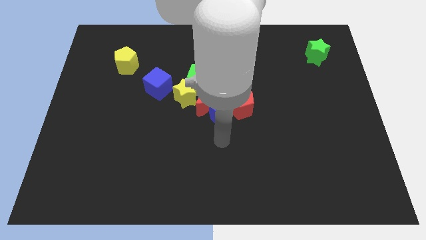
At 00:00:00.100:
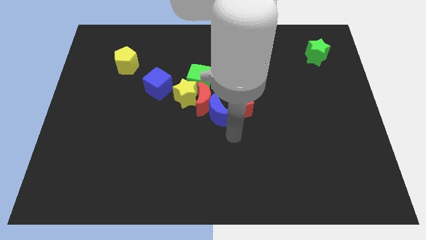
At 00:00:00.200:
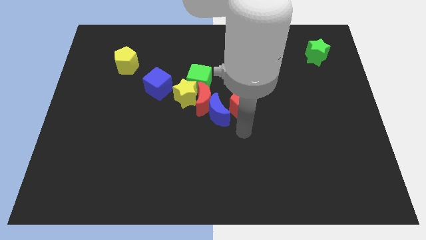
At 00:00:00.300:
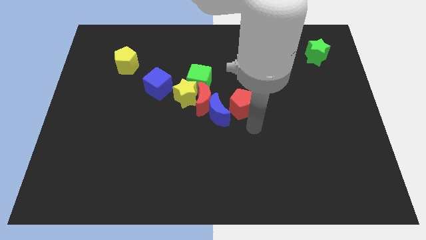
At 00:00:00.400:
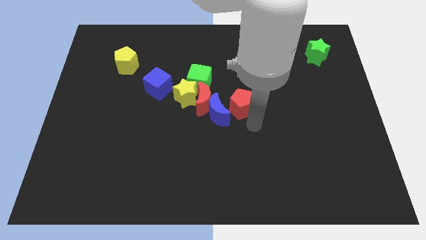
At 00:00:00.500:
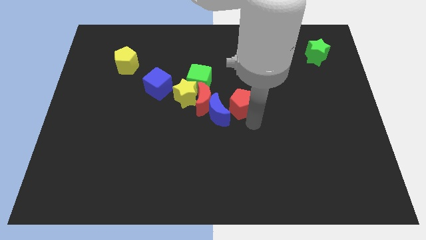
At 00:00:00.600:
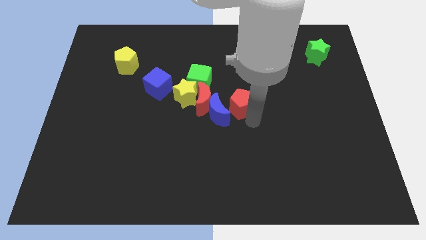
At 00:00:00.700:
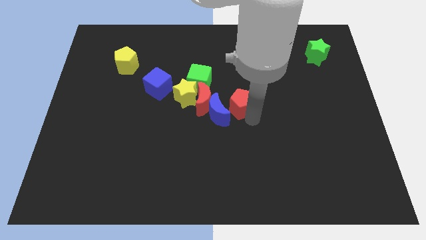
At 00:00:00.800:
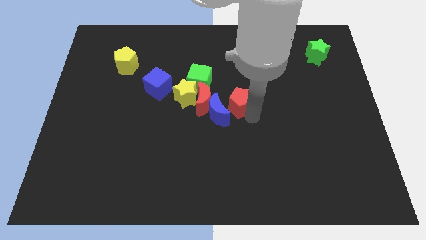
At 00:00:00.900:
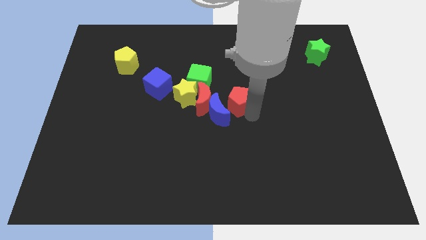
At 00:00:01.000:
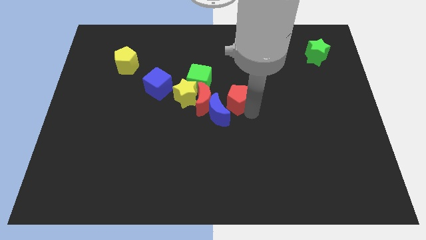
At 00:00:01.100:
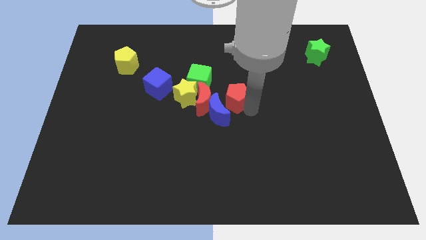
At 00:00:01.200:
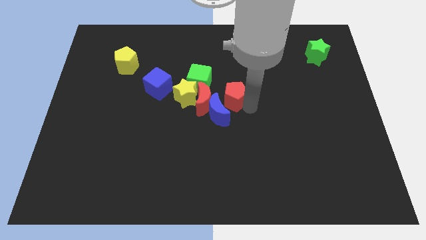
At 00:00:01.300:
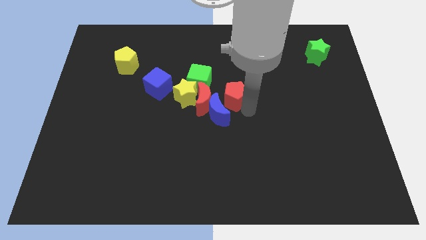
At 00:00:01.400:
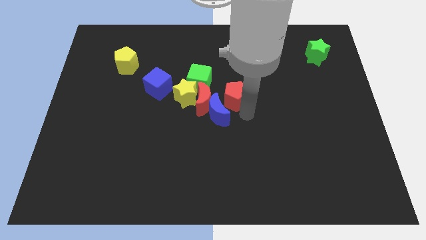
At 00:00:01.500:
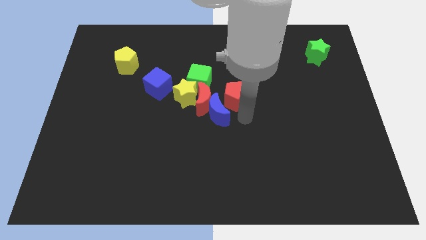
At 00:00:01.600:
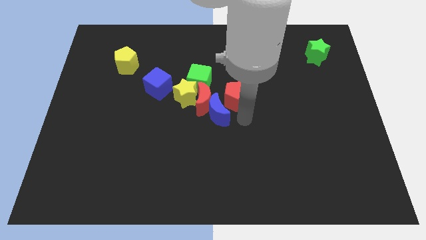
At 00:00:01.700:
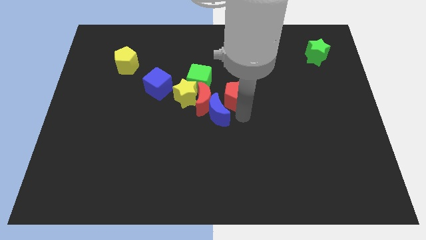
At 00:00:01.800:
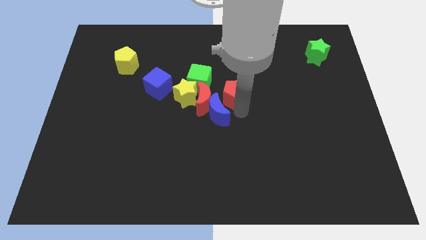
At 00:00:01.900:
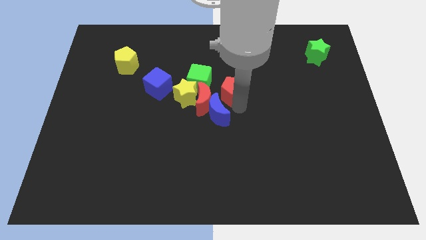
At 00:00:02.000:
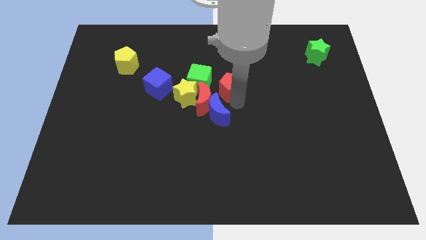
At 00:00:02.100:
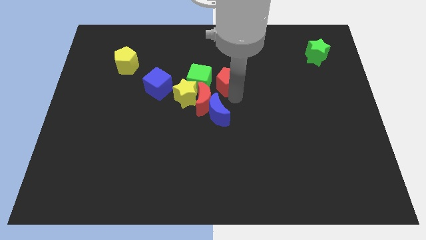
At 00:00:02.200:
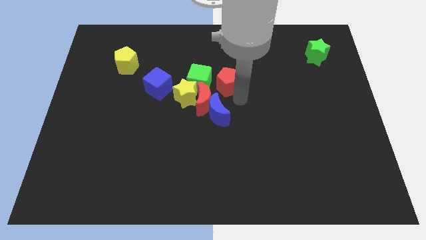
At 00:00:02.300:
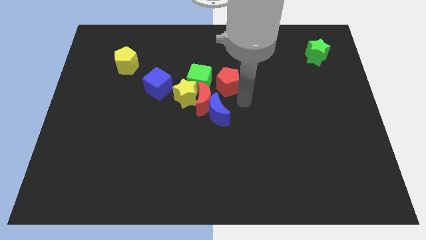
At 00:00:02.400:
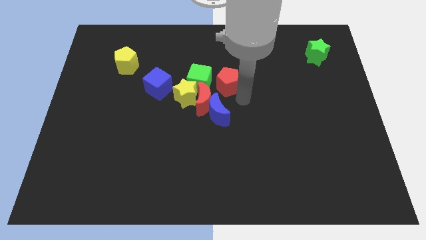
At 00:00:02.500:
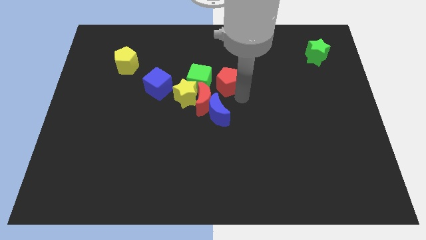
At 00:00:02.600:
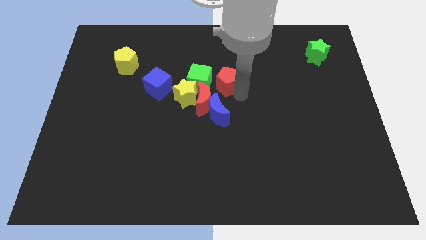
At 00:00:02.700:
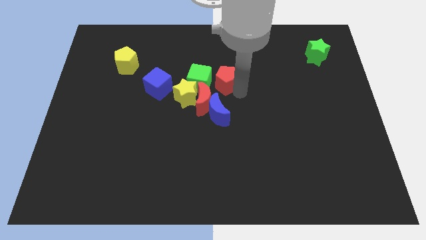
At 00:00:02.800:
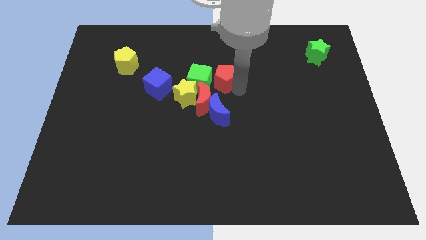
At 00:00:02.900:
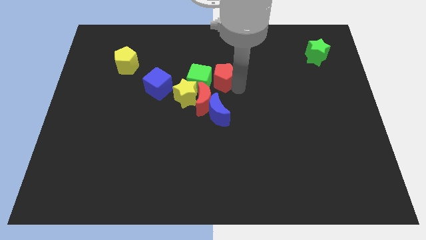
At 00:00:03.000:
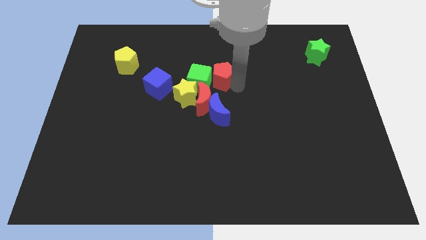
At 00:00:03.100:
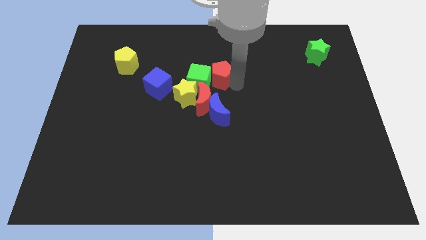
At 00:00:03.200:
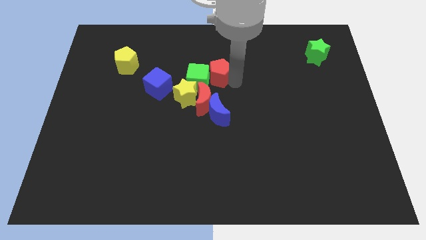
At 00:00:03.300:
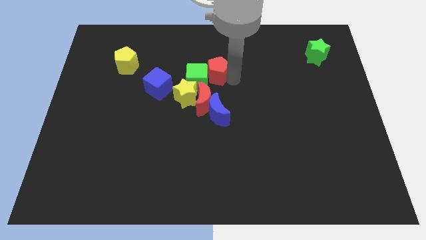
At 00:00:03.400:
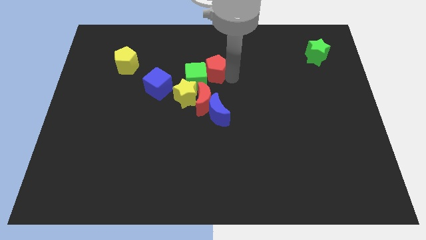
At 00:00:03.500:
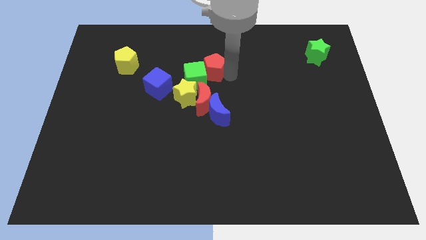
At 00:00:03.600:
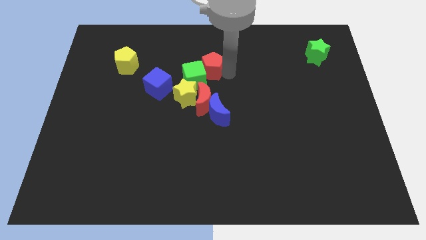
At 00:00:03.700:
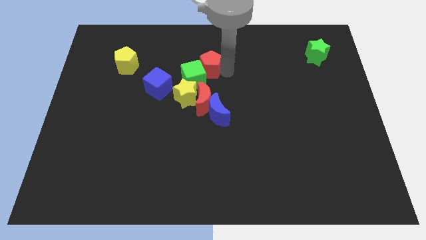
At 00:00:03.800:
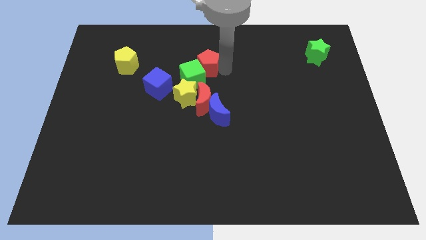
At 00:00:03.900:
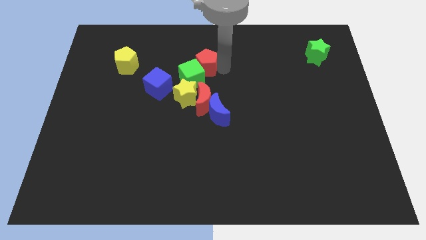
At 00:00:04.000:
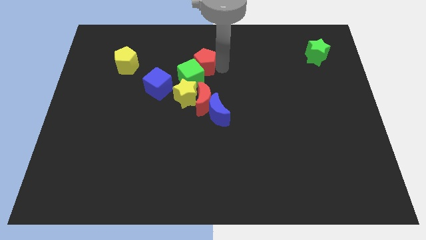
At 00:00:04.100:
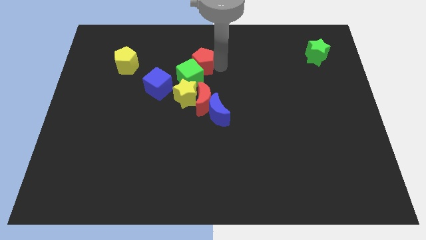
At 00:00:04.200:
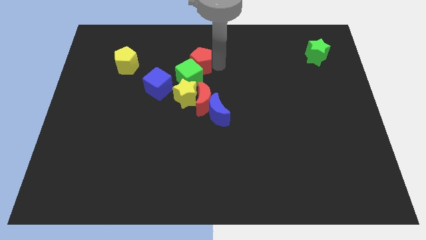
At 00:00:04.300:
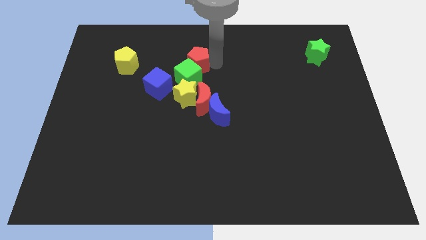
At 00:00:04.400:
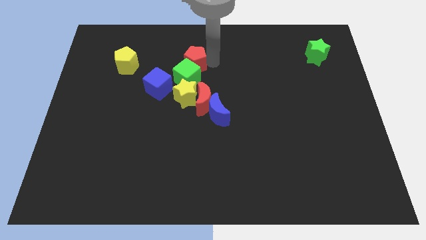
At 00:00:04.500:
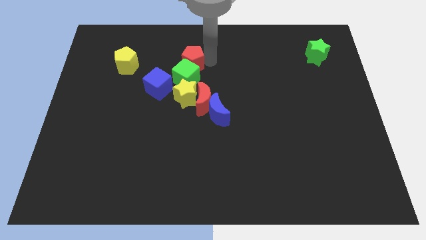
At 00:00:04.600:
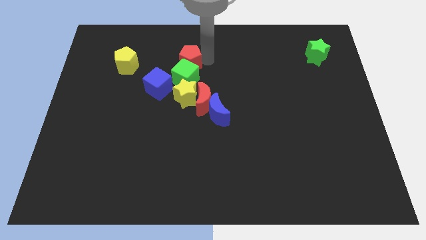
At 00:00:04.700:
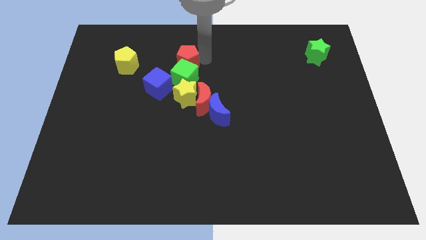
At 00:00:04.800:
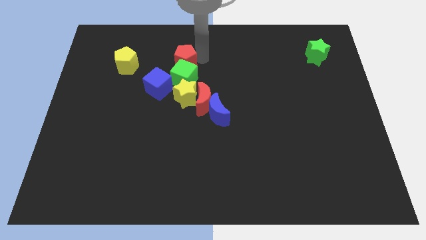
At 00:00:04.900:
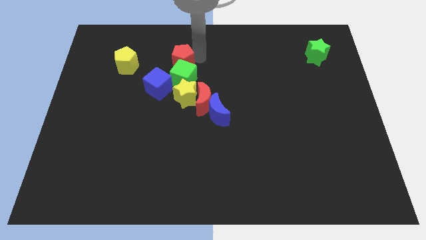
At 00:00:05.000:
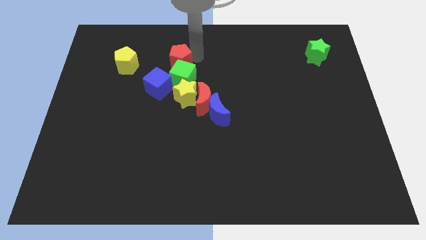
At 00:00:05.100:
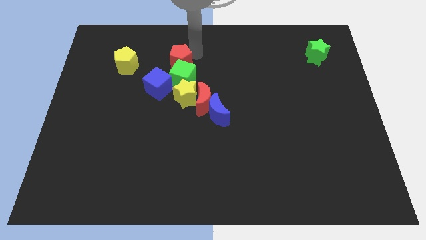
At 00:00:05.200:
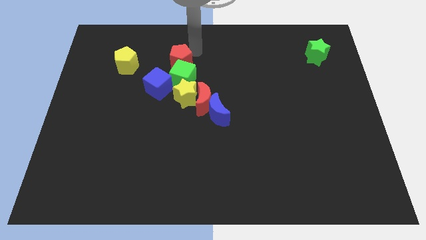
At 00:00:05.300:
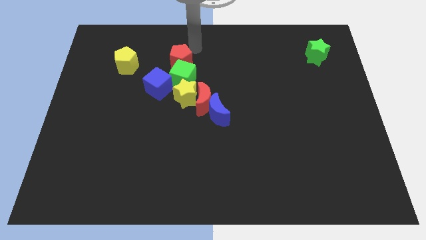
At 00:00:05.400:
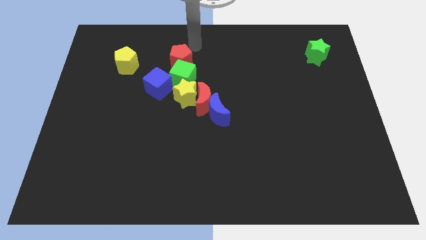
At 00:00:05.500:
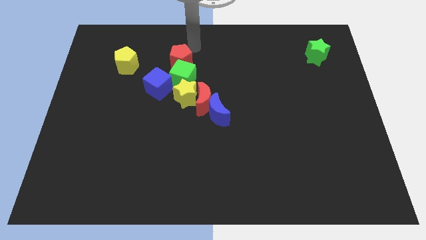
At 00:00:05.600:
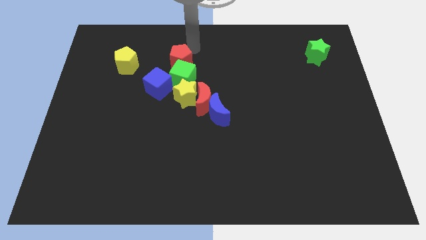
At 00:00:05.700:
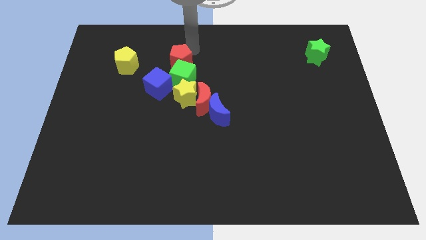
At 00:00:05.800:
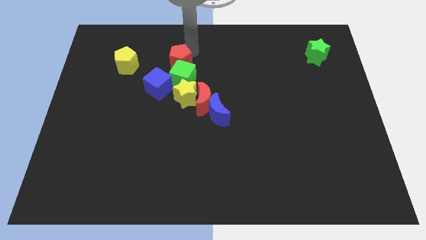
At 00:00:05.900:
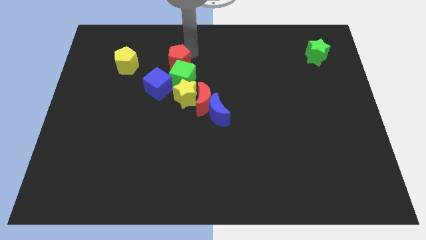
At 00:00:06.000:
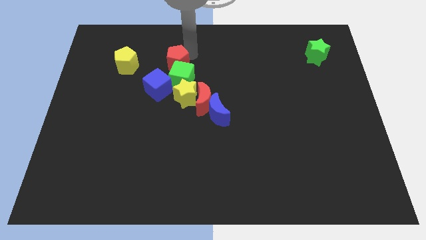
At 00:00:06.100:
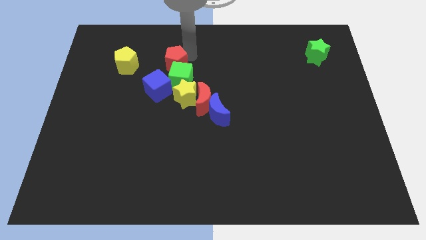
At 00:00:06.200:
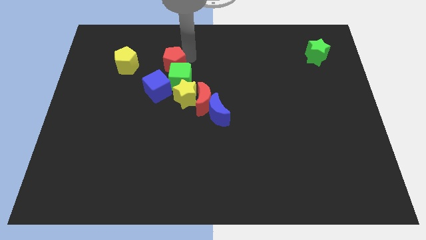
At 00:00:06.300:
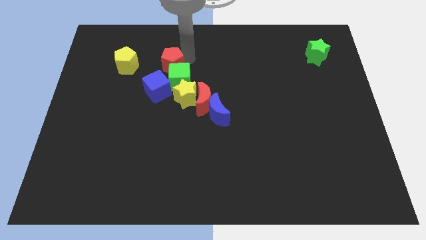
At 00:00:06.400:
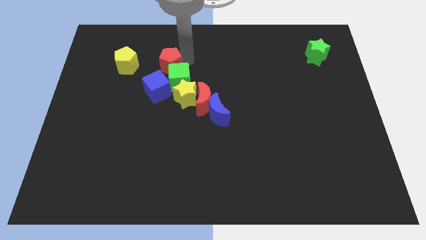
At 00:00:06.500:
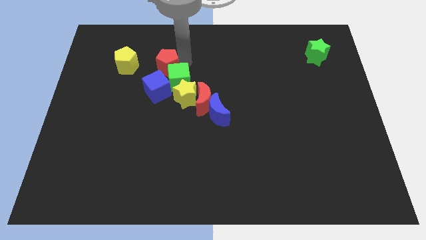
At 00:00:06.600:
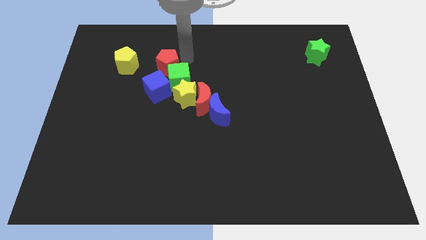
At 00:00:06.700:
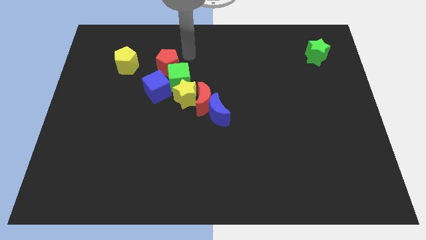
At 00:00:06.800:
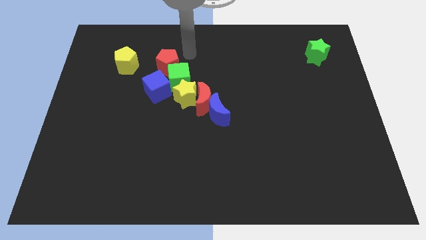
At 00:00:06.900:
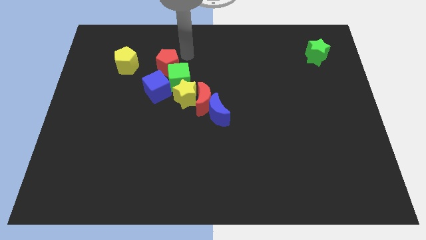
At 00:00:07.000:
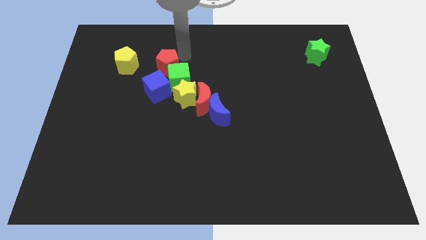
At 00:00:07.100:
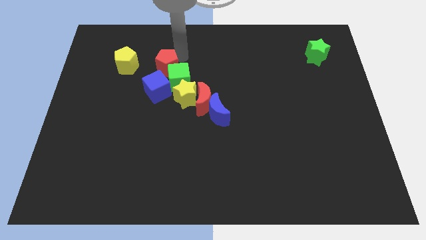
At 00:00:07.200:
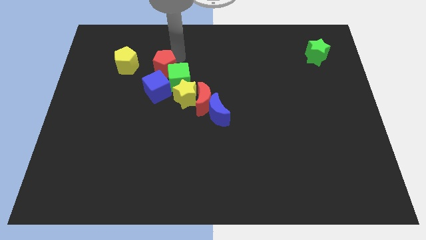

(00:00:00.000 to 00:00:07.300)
push the red pentagon to the left side of the green cube
